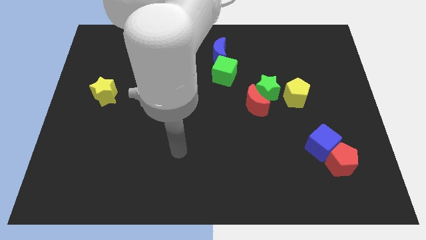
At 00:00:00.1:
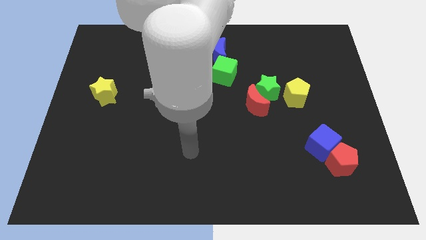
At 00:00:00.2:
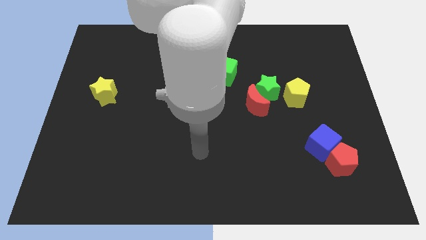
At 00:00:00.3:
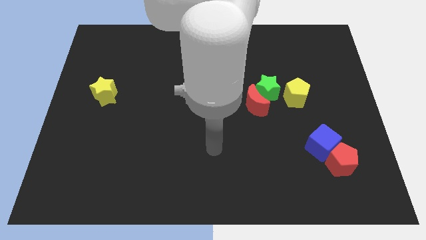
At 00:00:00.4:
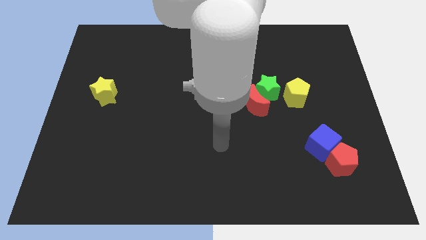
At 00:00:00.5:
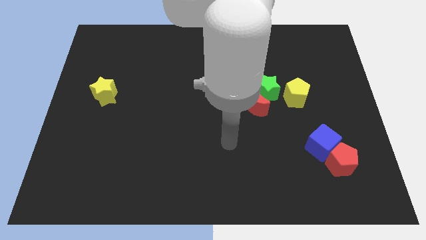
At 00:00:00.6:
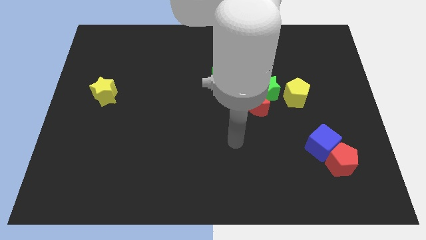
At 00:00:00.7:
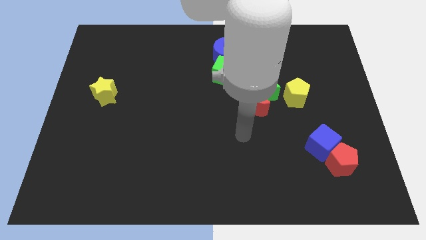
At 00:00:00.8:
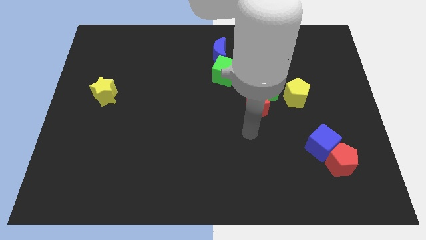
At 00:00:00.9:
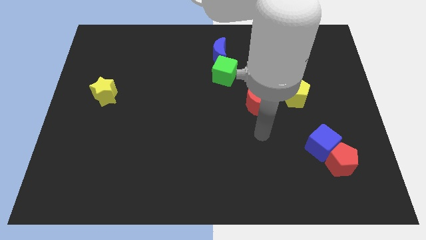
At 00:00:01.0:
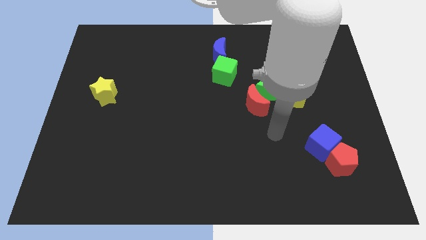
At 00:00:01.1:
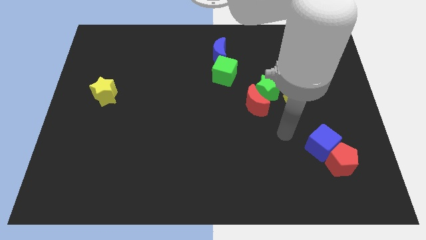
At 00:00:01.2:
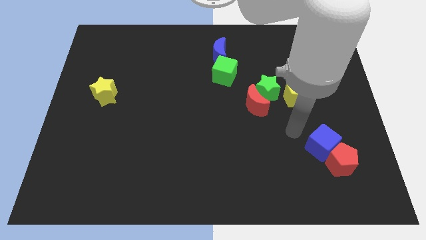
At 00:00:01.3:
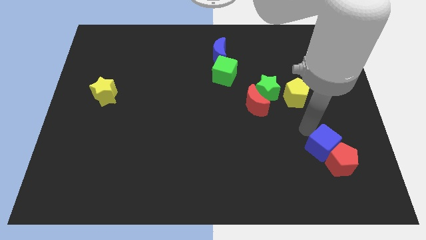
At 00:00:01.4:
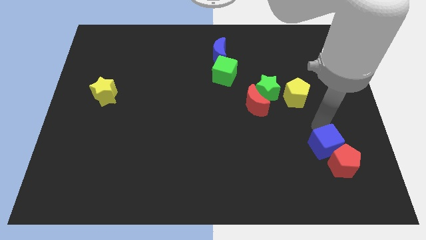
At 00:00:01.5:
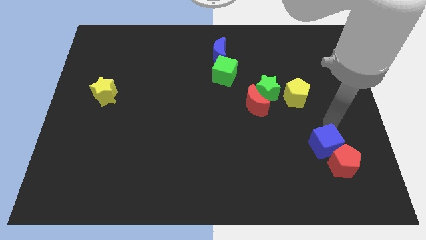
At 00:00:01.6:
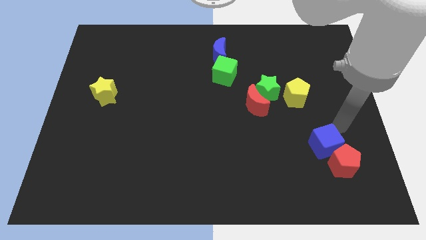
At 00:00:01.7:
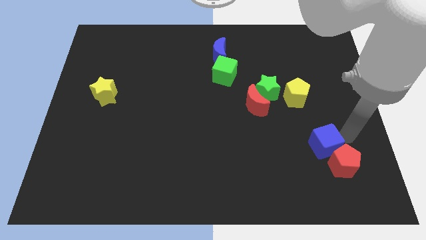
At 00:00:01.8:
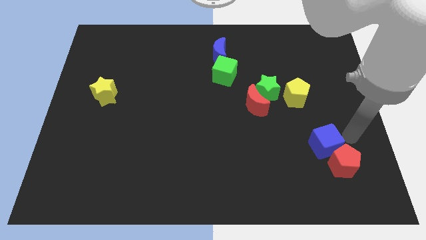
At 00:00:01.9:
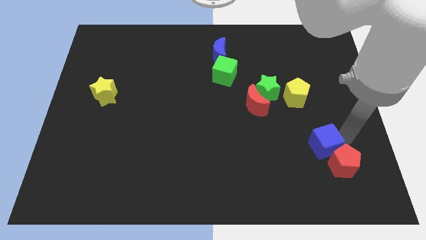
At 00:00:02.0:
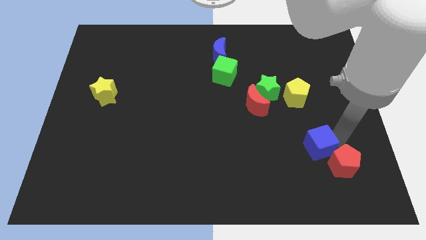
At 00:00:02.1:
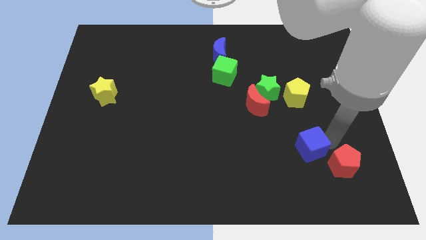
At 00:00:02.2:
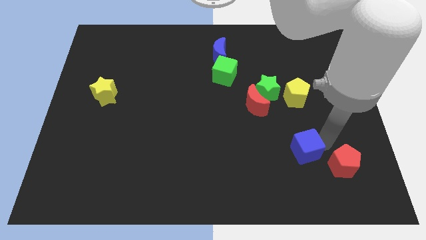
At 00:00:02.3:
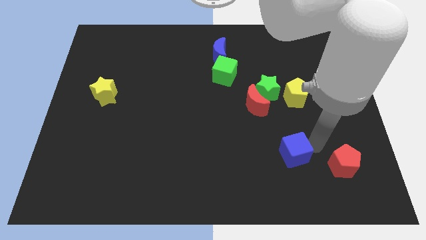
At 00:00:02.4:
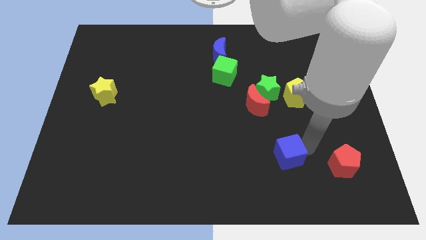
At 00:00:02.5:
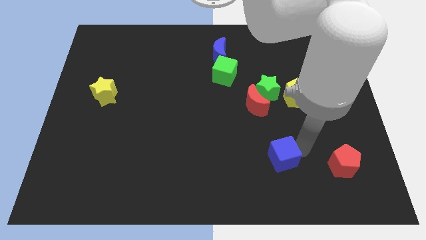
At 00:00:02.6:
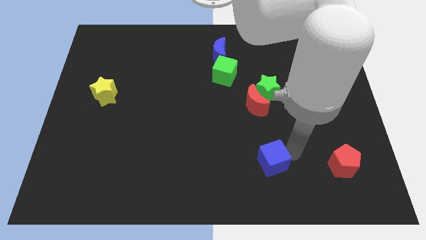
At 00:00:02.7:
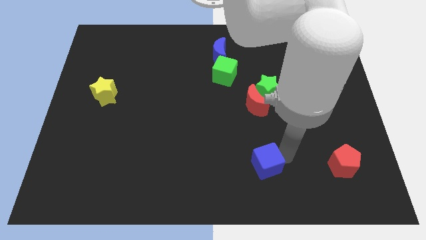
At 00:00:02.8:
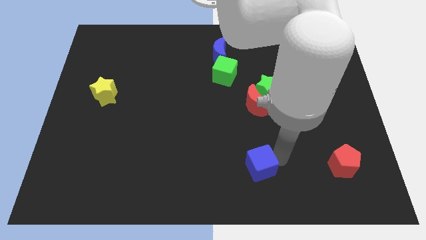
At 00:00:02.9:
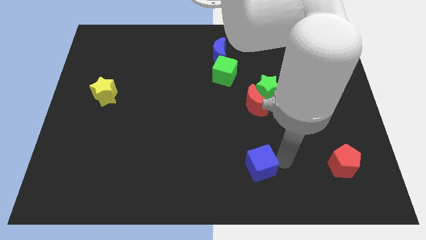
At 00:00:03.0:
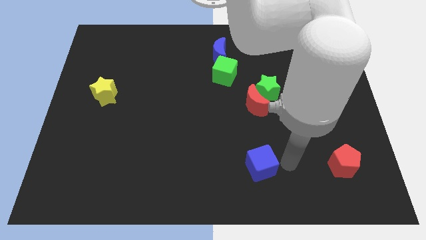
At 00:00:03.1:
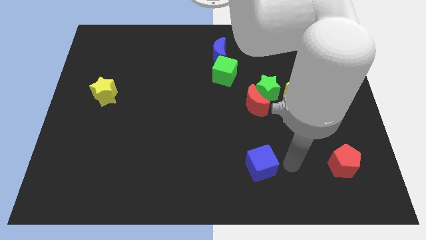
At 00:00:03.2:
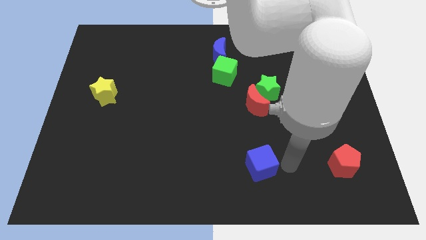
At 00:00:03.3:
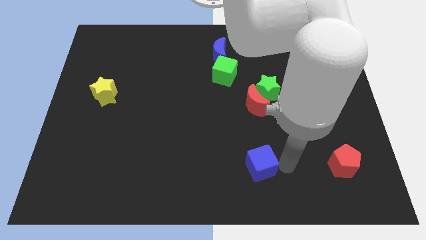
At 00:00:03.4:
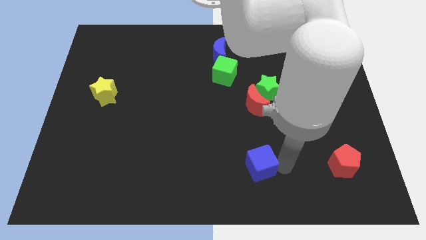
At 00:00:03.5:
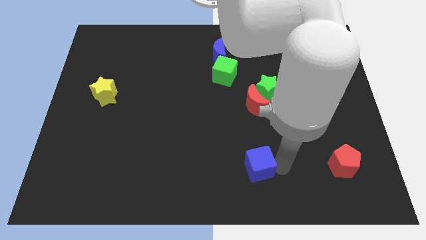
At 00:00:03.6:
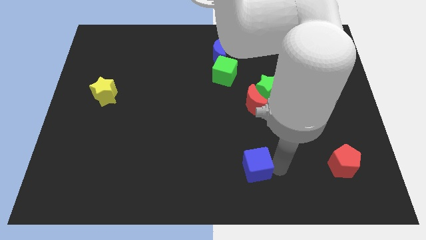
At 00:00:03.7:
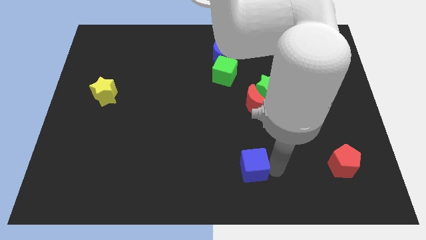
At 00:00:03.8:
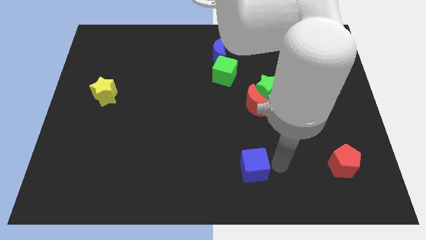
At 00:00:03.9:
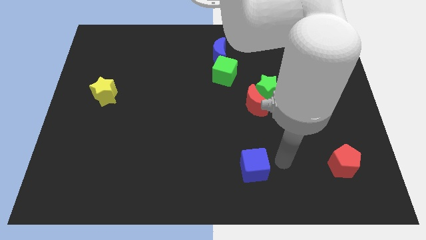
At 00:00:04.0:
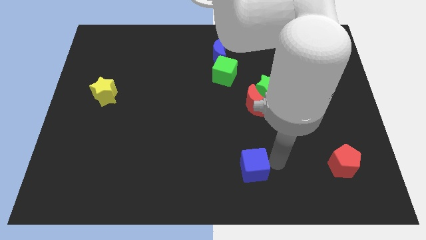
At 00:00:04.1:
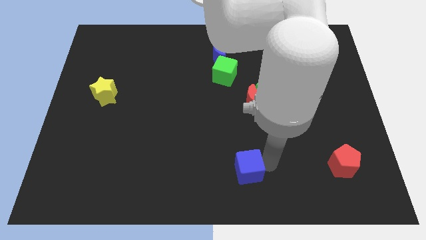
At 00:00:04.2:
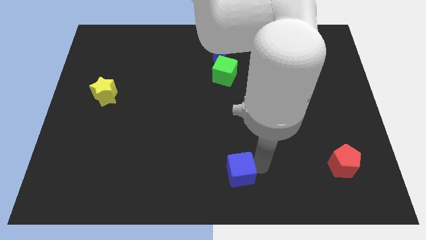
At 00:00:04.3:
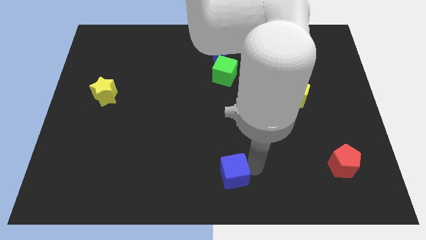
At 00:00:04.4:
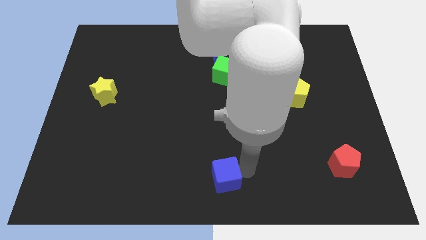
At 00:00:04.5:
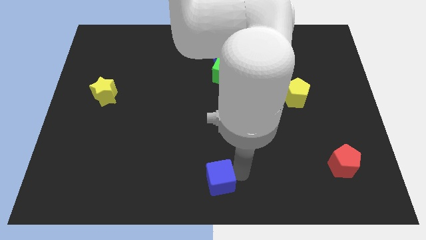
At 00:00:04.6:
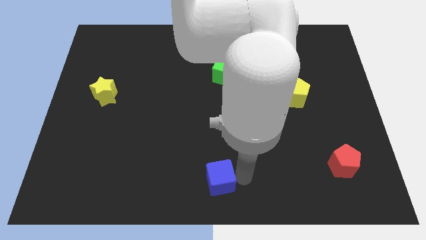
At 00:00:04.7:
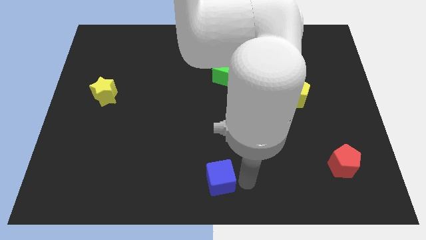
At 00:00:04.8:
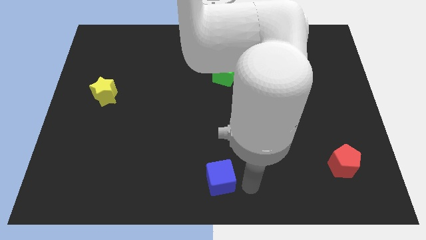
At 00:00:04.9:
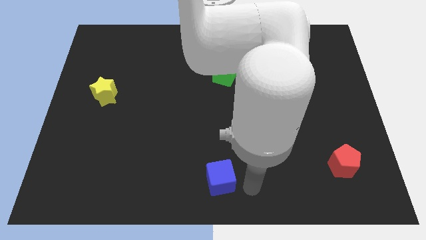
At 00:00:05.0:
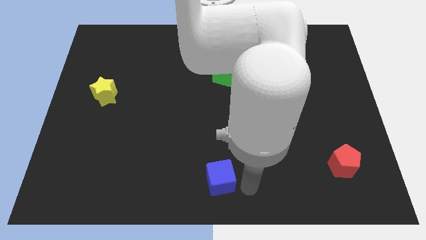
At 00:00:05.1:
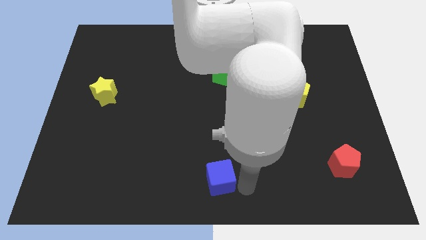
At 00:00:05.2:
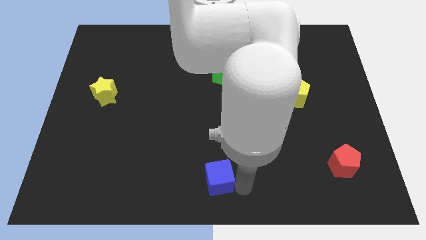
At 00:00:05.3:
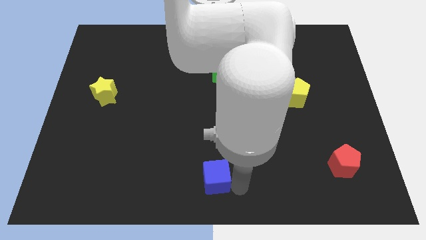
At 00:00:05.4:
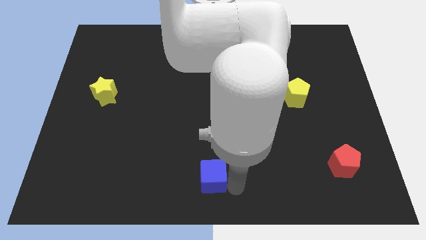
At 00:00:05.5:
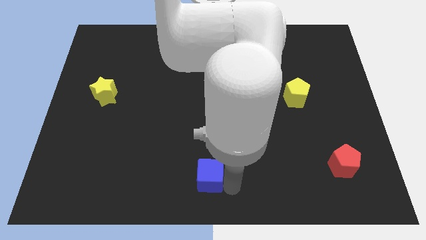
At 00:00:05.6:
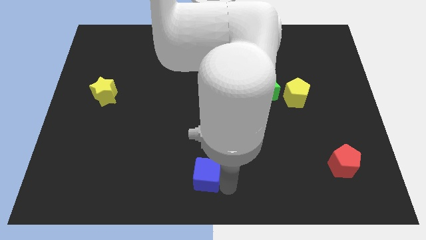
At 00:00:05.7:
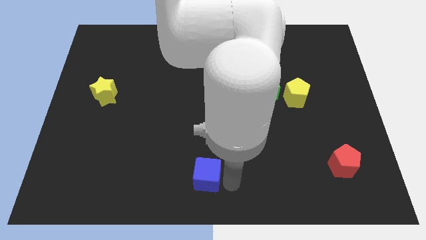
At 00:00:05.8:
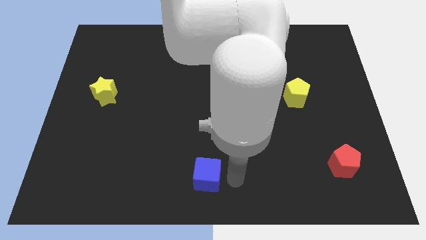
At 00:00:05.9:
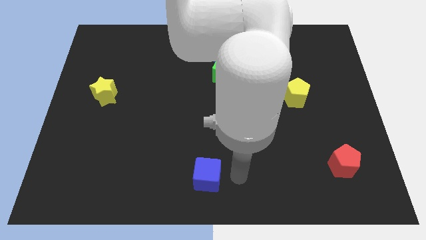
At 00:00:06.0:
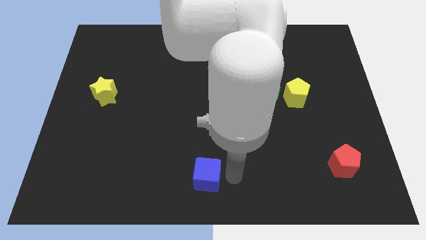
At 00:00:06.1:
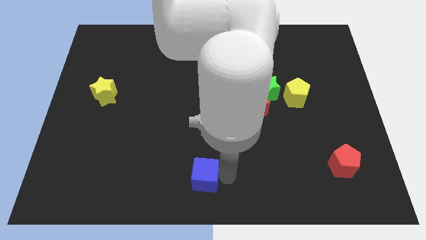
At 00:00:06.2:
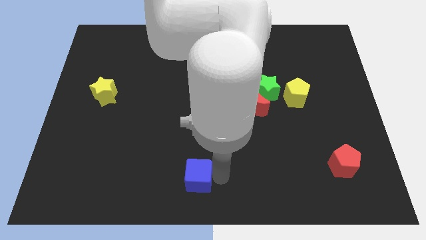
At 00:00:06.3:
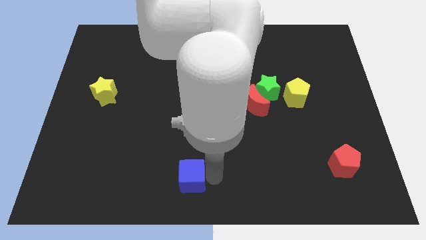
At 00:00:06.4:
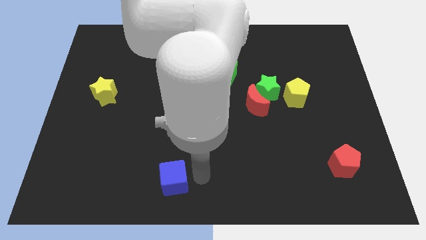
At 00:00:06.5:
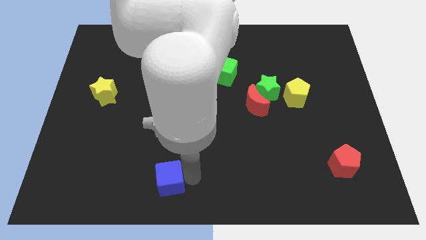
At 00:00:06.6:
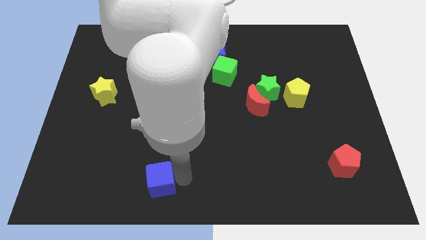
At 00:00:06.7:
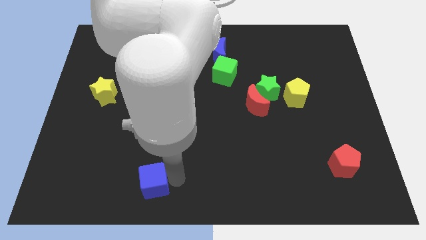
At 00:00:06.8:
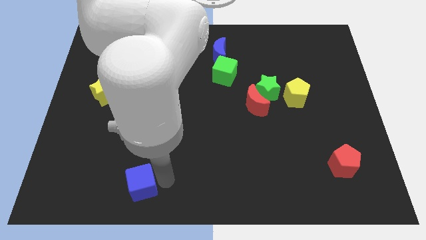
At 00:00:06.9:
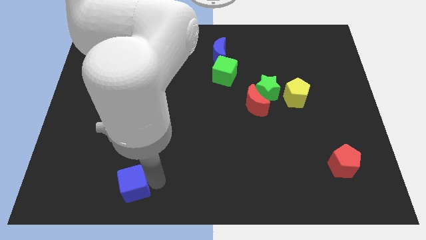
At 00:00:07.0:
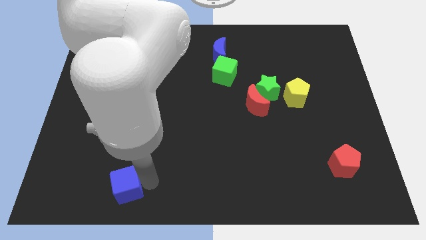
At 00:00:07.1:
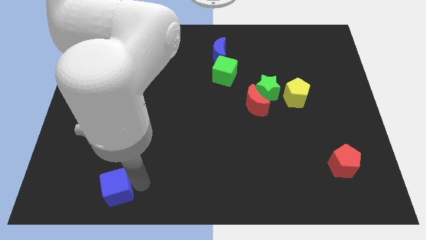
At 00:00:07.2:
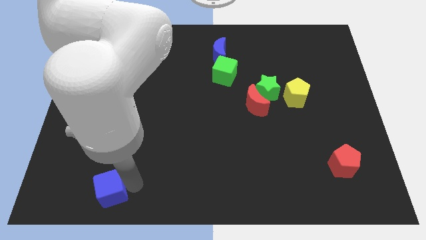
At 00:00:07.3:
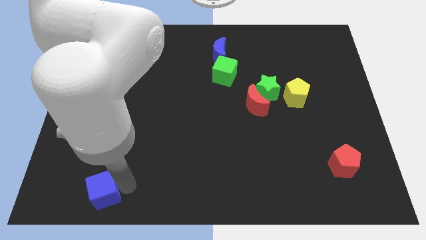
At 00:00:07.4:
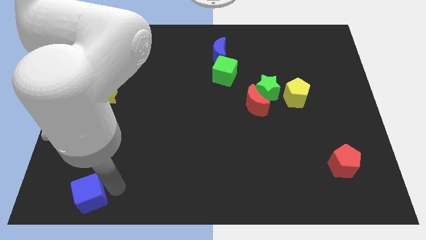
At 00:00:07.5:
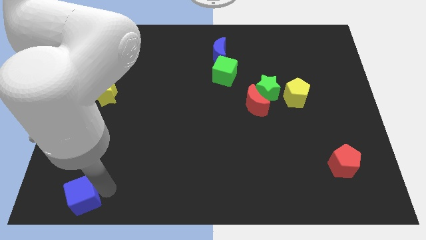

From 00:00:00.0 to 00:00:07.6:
push the blue cube to the bottom left
